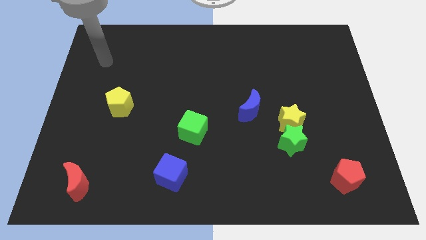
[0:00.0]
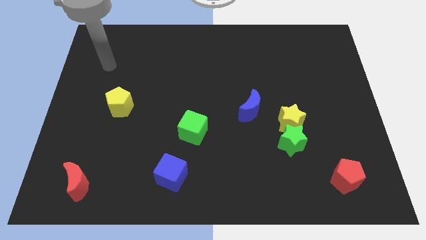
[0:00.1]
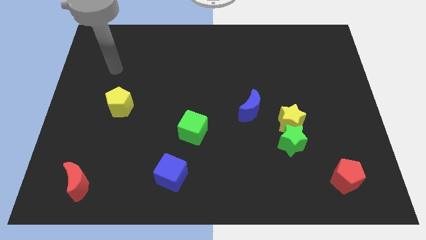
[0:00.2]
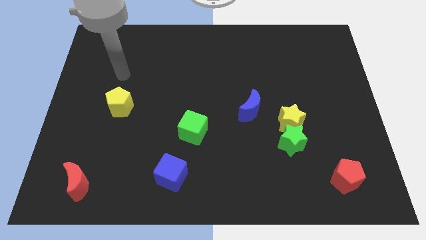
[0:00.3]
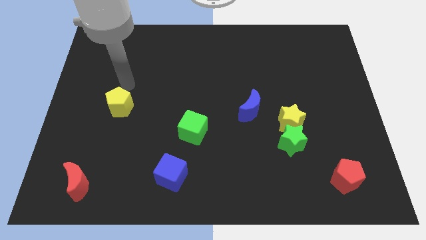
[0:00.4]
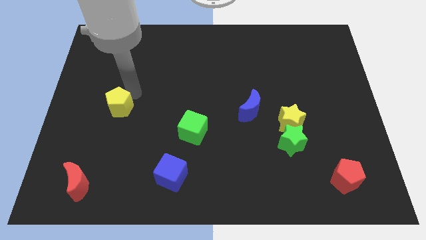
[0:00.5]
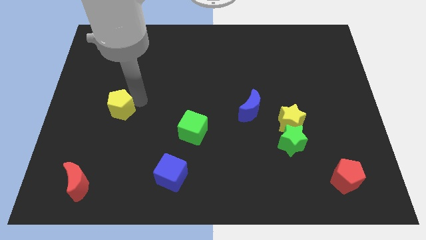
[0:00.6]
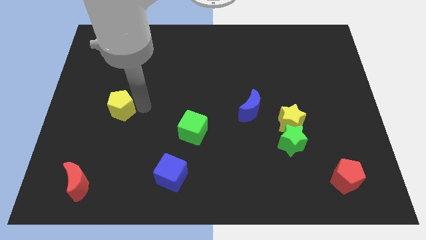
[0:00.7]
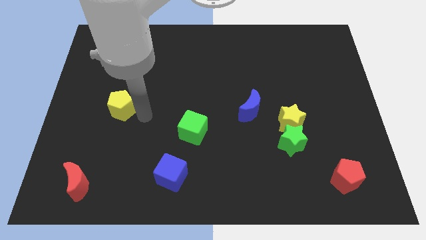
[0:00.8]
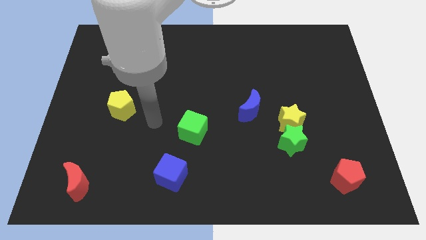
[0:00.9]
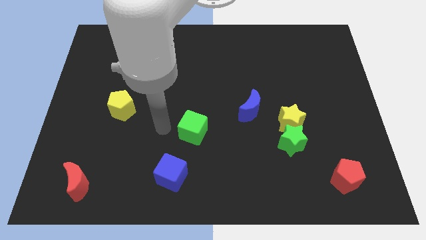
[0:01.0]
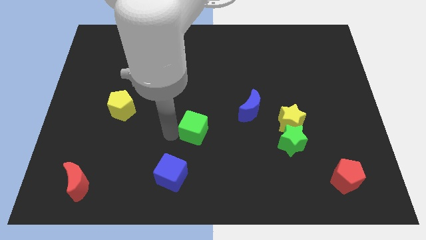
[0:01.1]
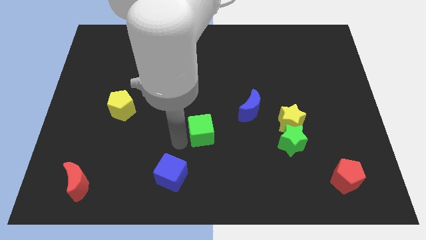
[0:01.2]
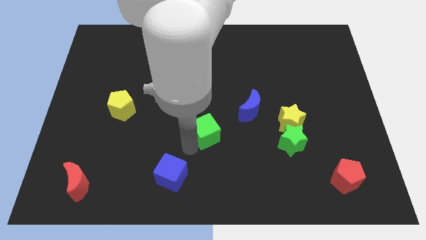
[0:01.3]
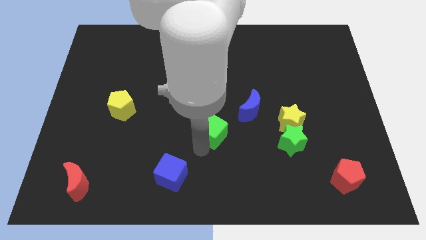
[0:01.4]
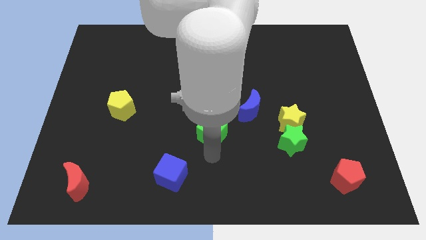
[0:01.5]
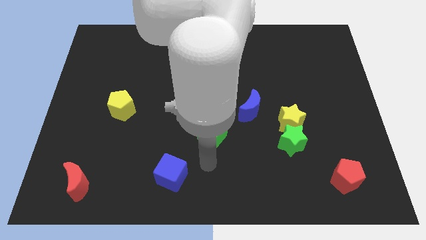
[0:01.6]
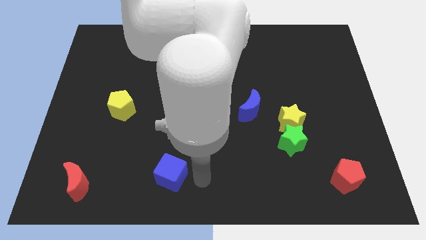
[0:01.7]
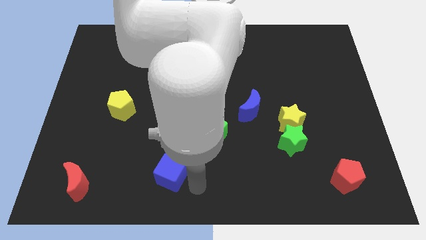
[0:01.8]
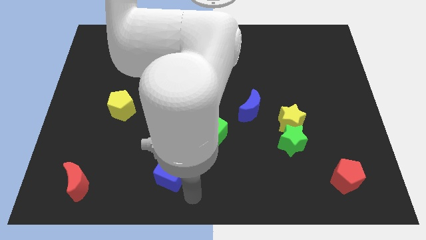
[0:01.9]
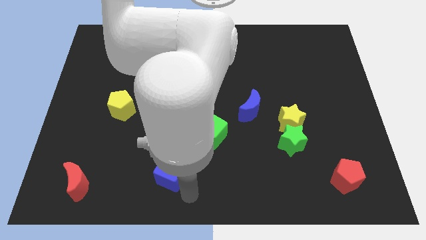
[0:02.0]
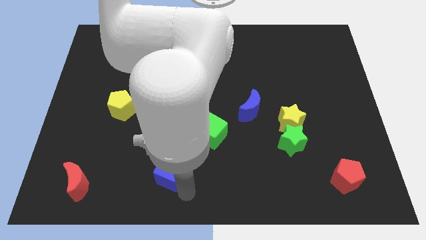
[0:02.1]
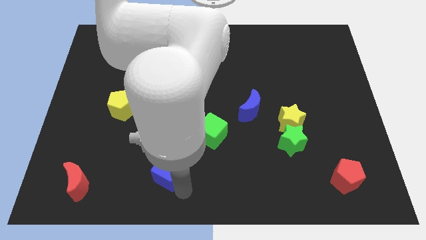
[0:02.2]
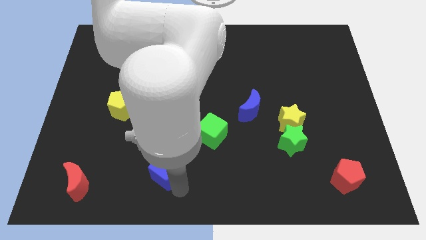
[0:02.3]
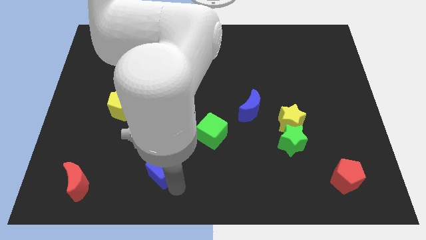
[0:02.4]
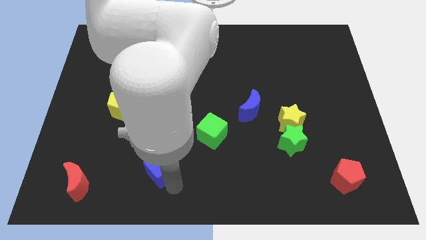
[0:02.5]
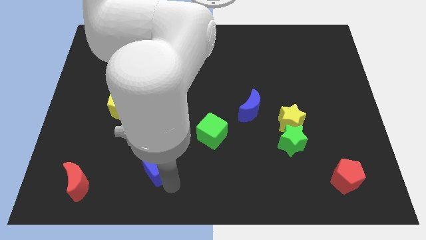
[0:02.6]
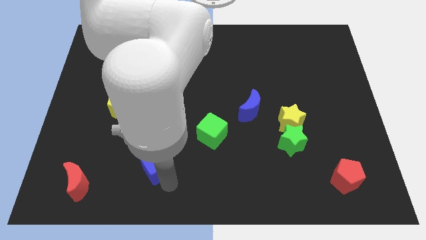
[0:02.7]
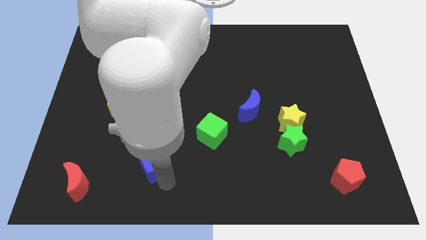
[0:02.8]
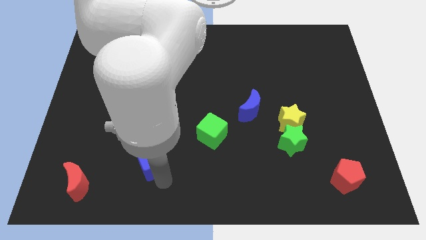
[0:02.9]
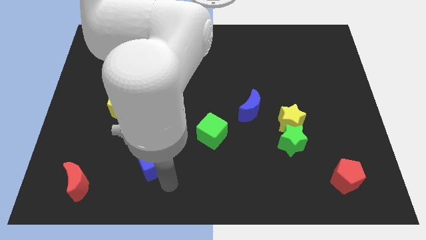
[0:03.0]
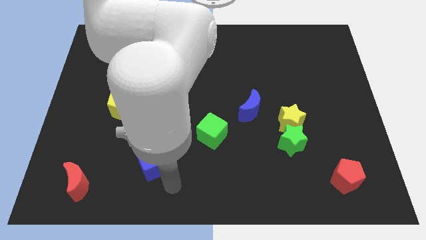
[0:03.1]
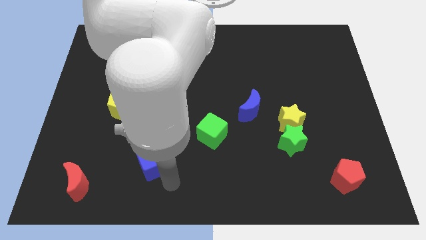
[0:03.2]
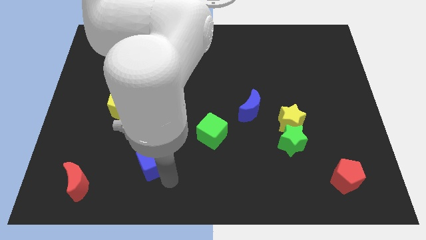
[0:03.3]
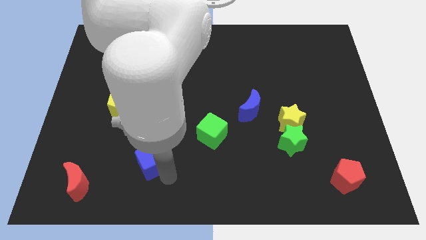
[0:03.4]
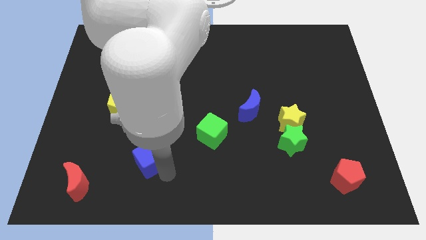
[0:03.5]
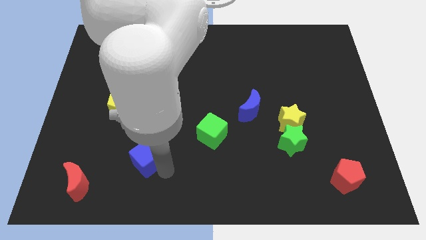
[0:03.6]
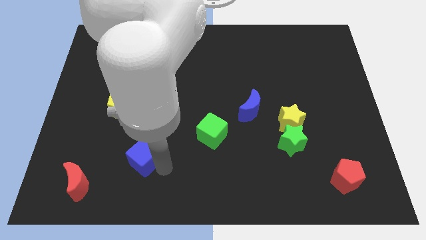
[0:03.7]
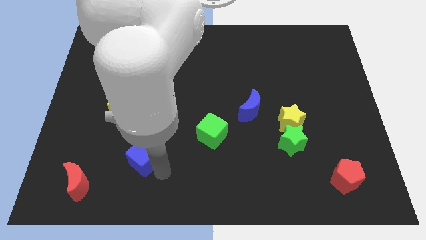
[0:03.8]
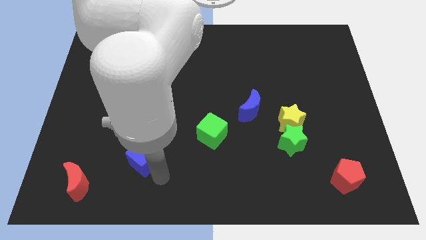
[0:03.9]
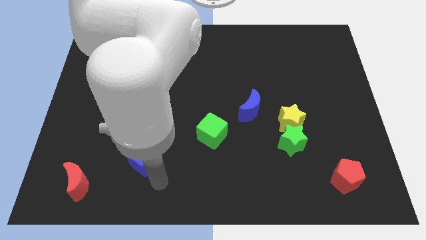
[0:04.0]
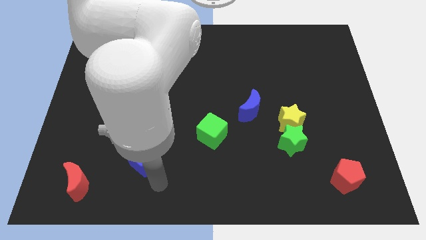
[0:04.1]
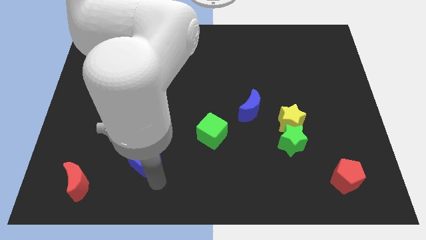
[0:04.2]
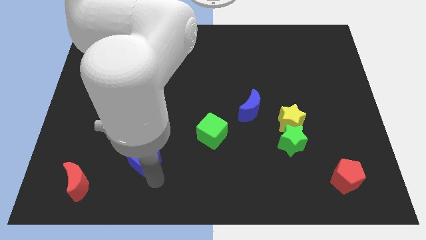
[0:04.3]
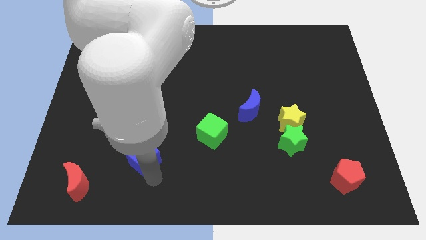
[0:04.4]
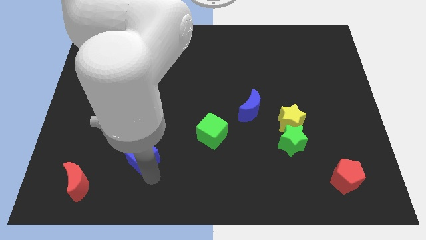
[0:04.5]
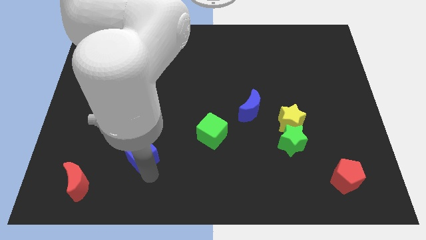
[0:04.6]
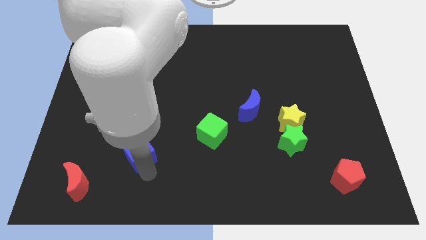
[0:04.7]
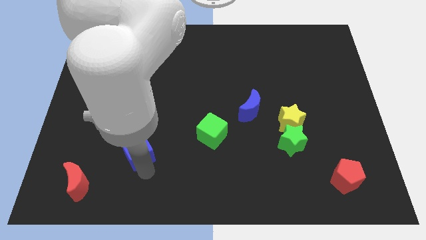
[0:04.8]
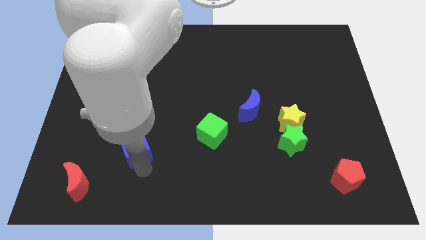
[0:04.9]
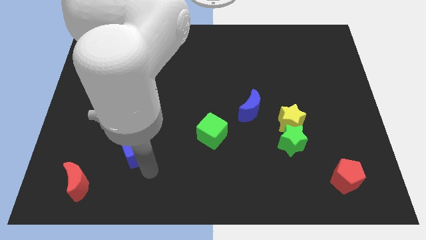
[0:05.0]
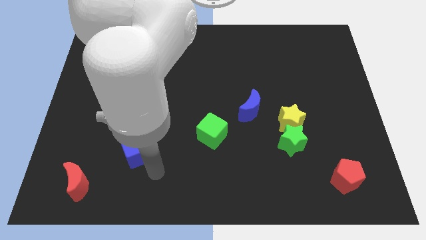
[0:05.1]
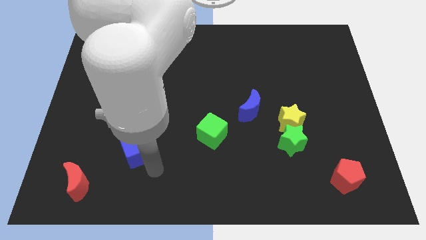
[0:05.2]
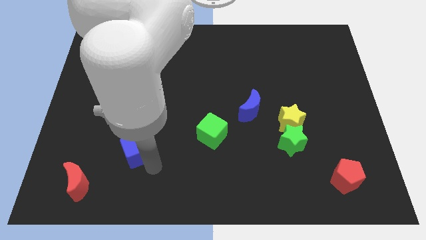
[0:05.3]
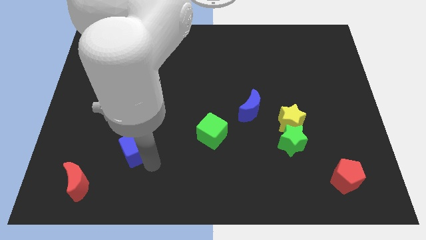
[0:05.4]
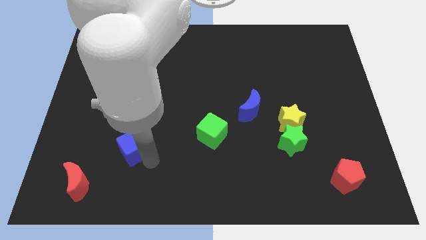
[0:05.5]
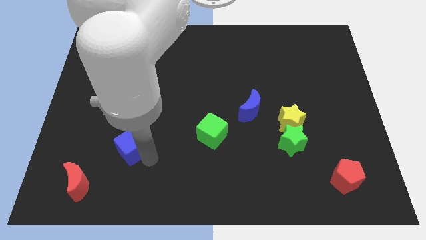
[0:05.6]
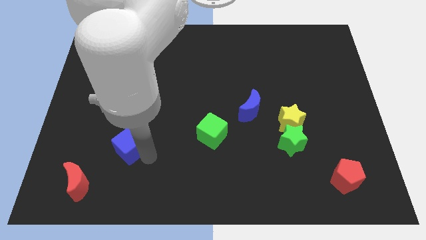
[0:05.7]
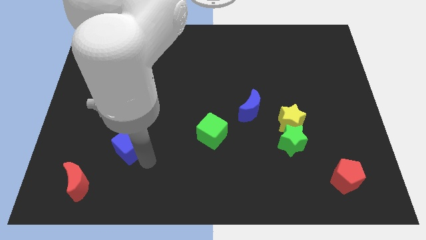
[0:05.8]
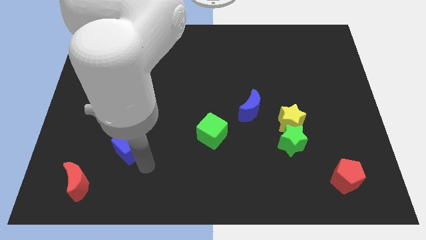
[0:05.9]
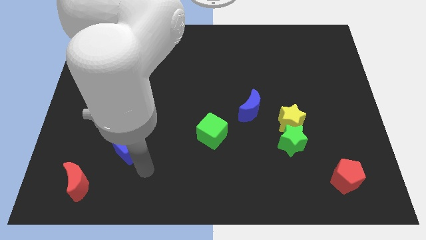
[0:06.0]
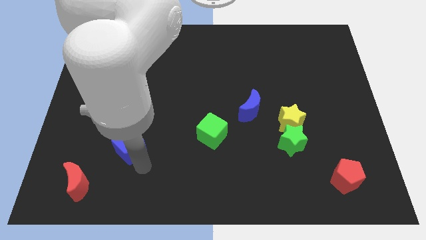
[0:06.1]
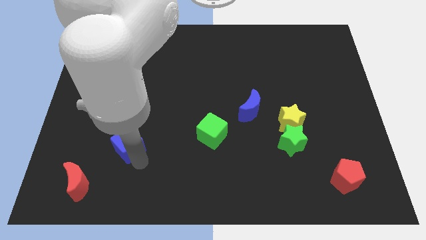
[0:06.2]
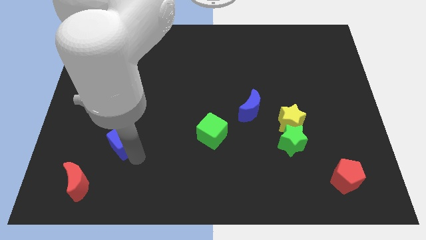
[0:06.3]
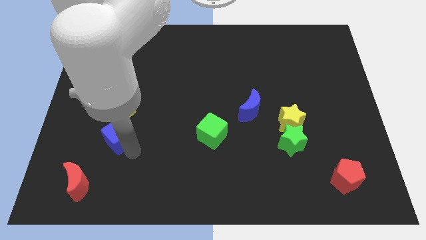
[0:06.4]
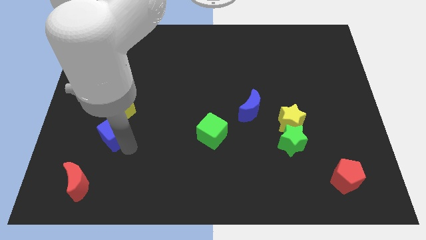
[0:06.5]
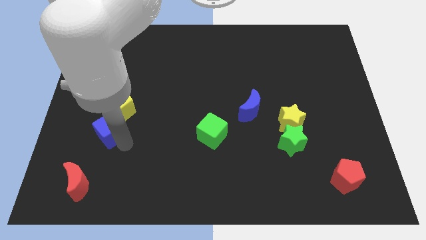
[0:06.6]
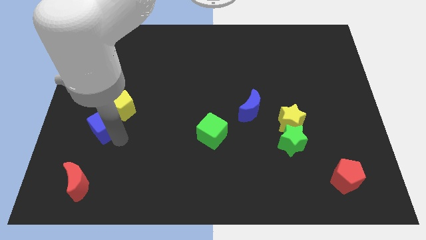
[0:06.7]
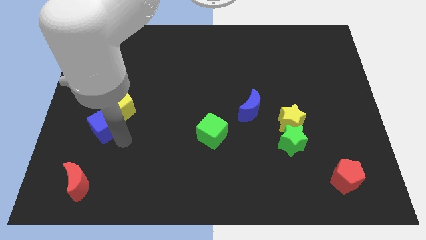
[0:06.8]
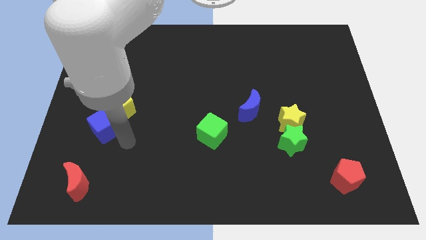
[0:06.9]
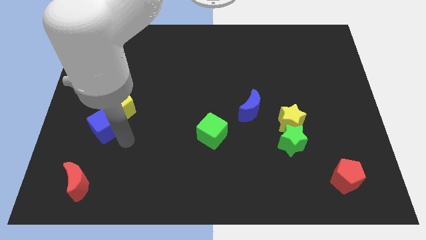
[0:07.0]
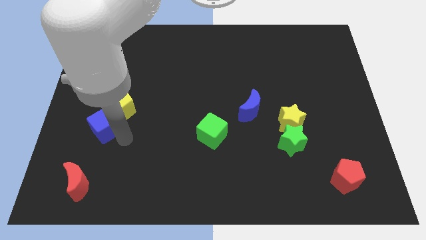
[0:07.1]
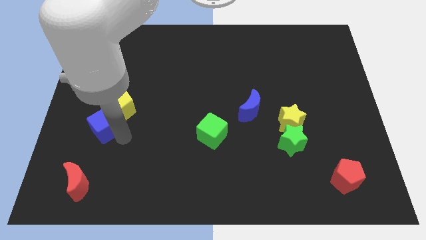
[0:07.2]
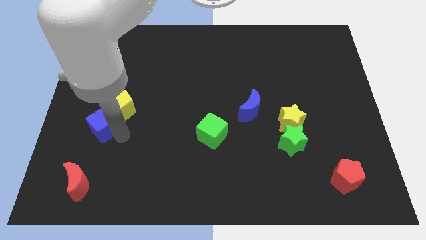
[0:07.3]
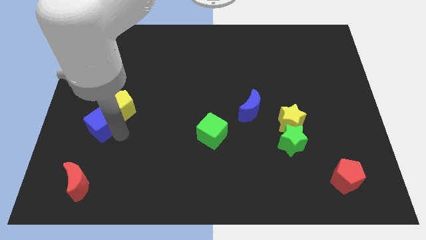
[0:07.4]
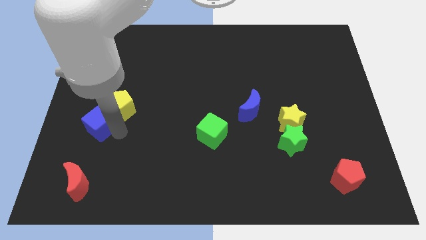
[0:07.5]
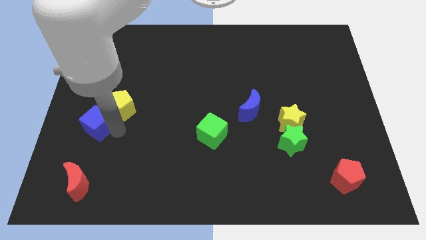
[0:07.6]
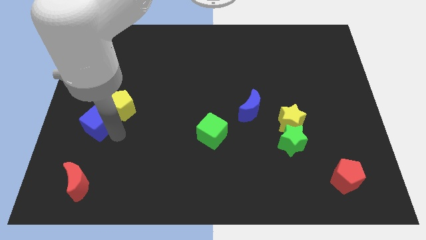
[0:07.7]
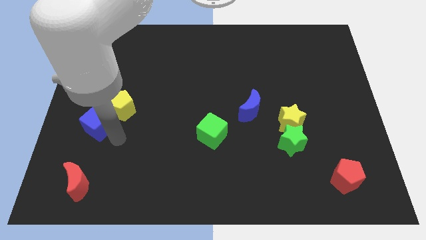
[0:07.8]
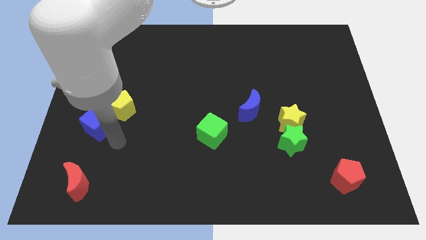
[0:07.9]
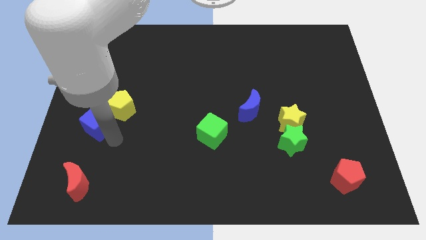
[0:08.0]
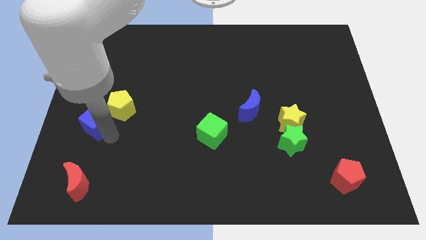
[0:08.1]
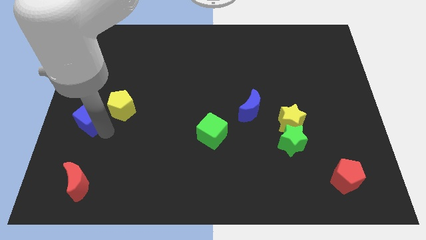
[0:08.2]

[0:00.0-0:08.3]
move the blue cube to the center left
